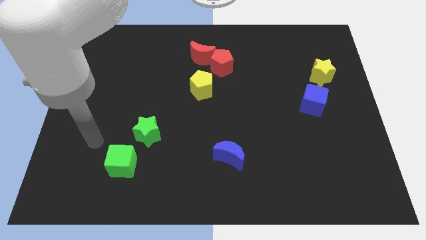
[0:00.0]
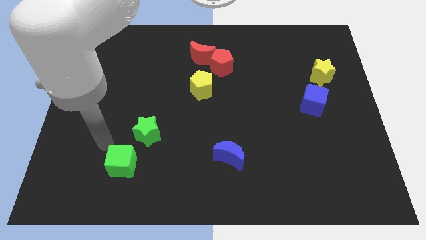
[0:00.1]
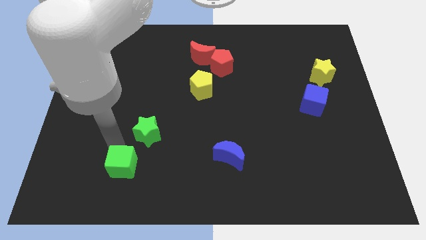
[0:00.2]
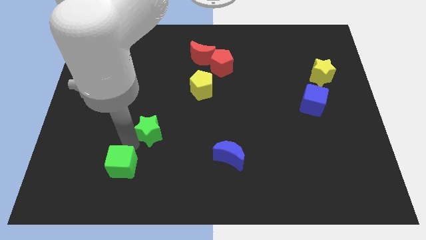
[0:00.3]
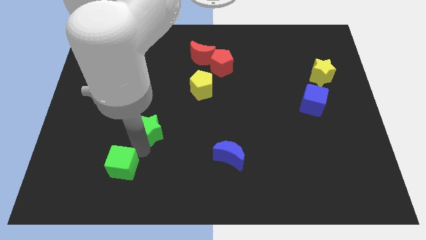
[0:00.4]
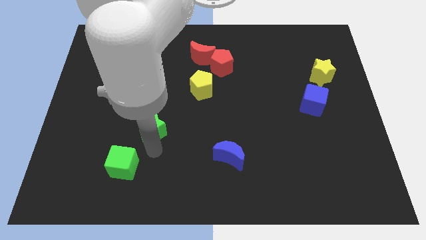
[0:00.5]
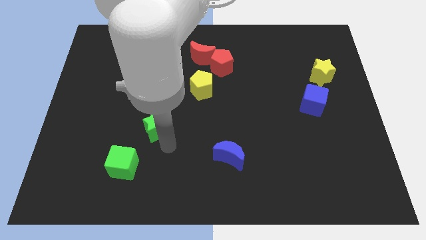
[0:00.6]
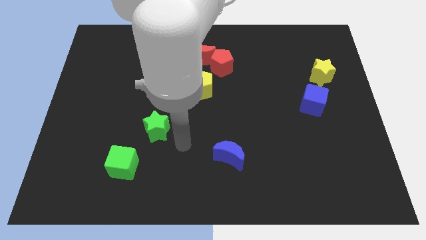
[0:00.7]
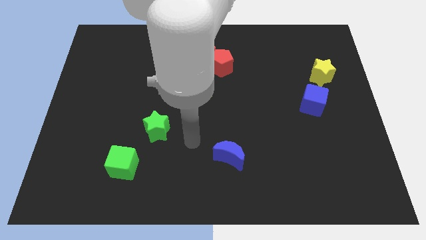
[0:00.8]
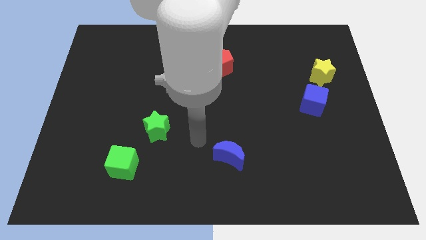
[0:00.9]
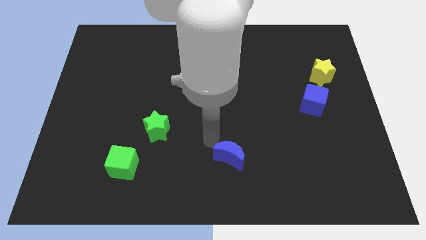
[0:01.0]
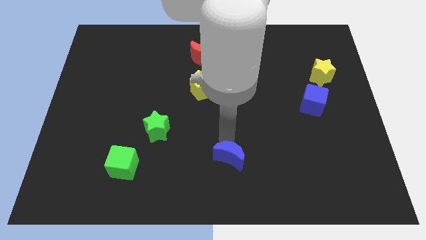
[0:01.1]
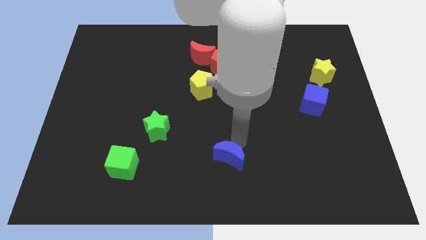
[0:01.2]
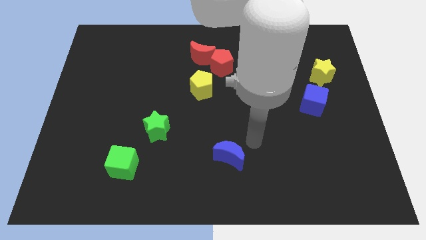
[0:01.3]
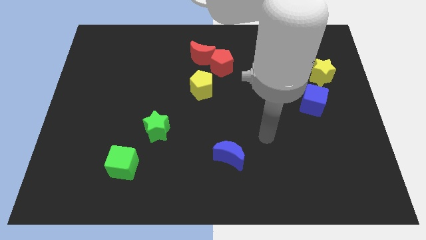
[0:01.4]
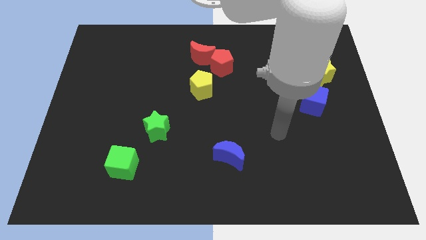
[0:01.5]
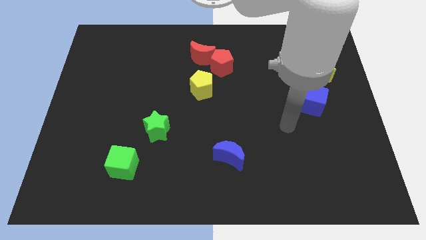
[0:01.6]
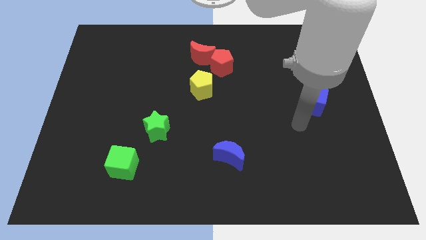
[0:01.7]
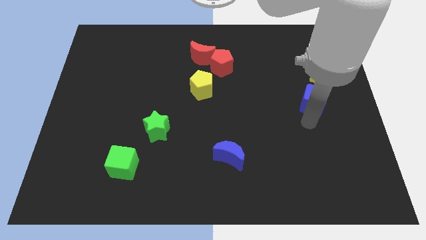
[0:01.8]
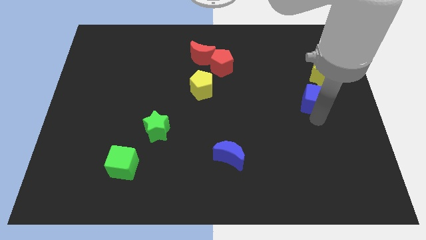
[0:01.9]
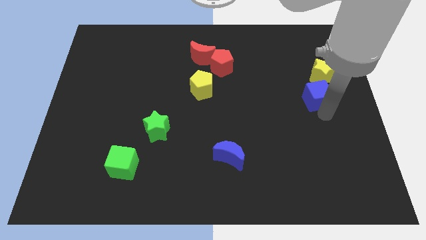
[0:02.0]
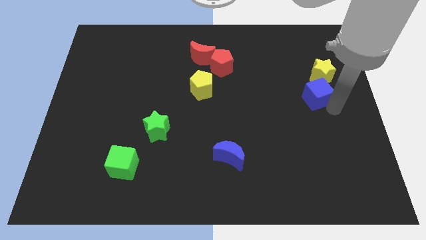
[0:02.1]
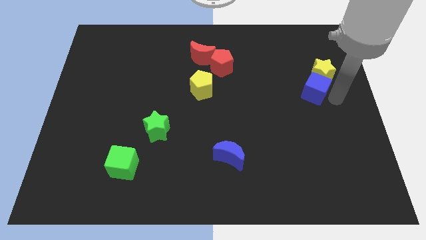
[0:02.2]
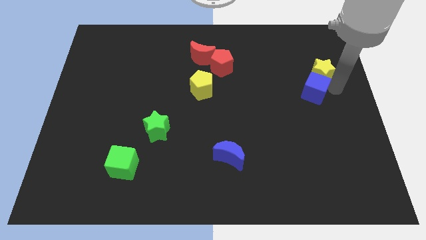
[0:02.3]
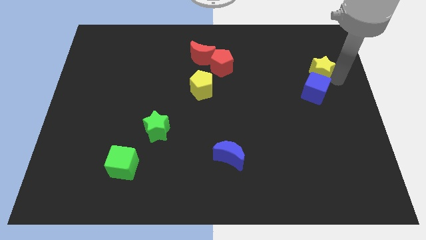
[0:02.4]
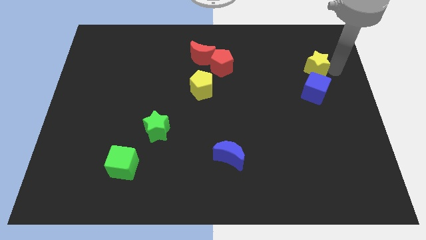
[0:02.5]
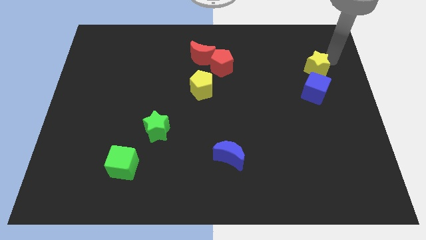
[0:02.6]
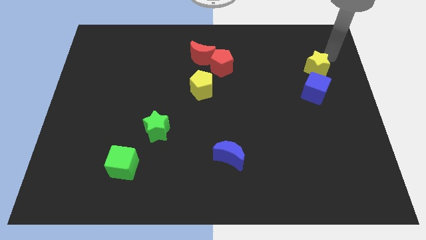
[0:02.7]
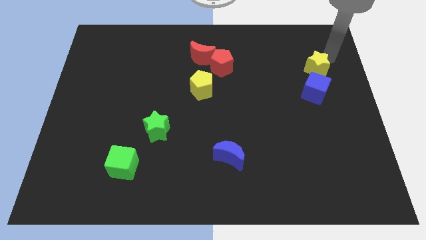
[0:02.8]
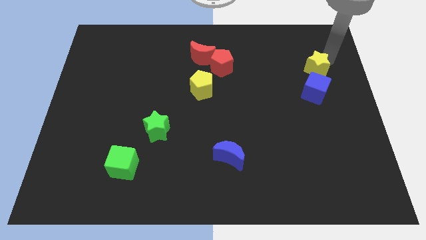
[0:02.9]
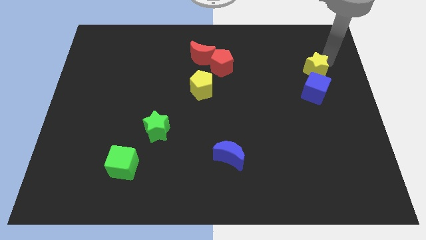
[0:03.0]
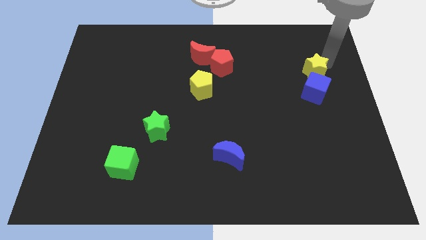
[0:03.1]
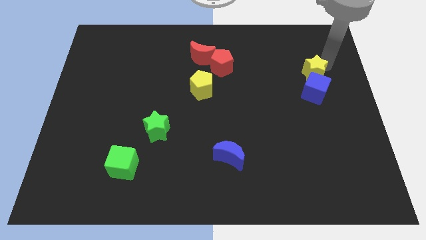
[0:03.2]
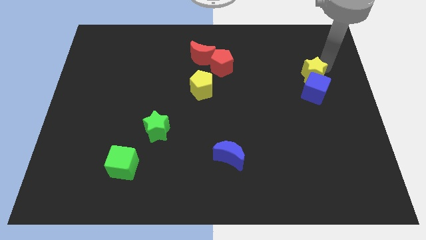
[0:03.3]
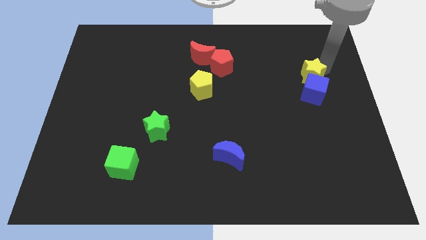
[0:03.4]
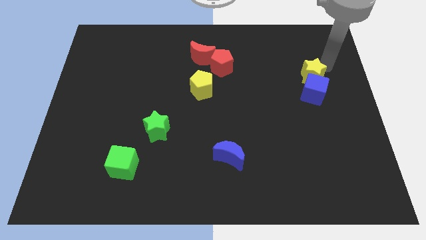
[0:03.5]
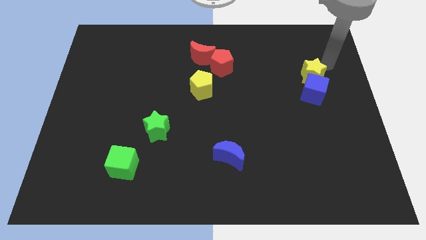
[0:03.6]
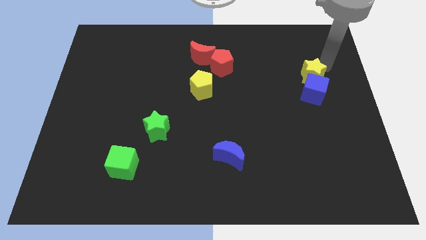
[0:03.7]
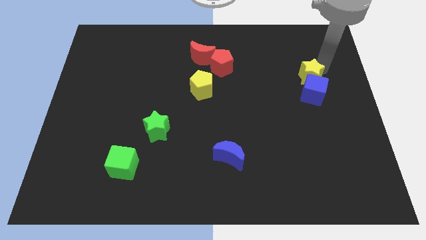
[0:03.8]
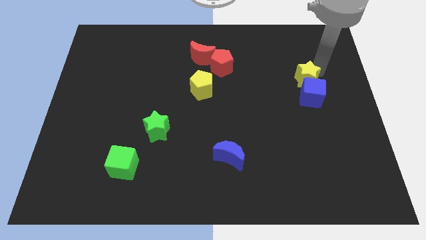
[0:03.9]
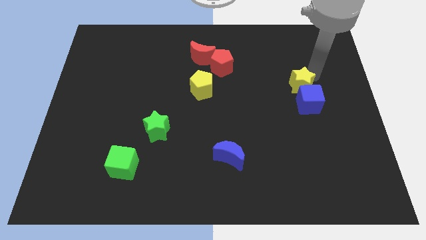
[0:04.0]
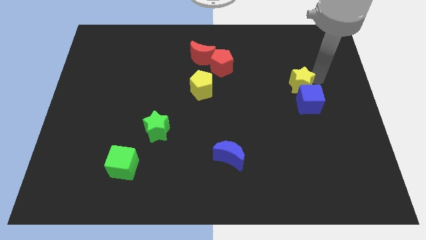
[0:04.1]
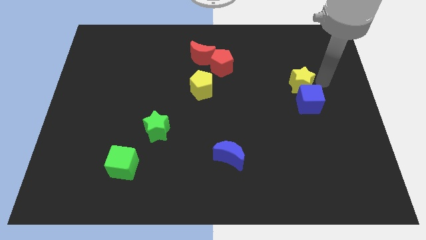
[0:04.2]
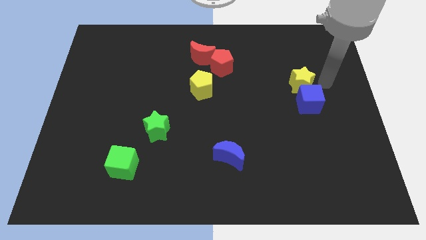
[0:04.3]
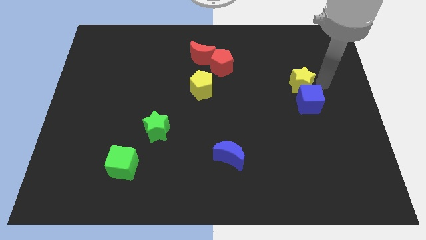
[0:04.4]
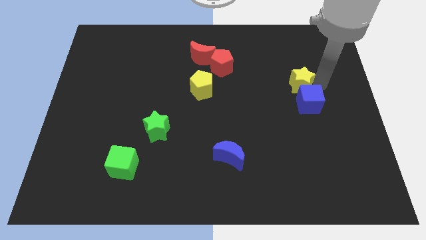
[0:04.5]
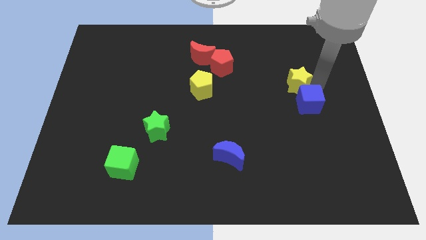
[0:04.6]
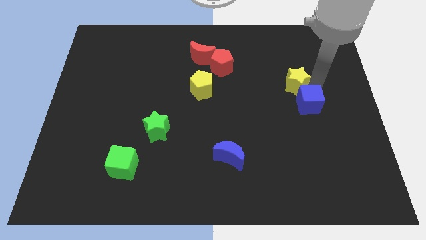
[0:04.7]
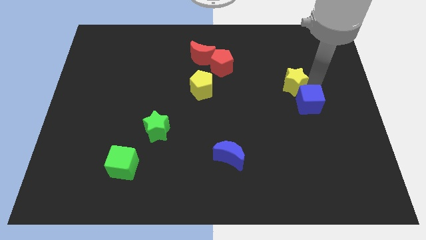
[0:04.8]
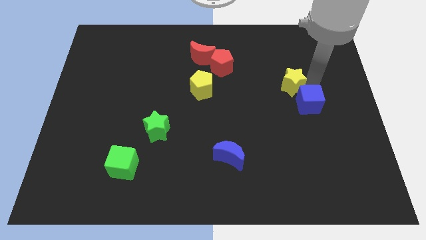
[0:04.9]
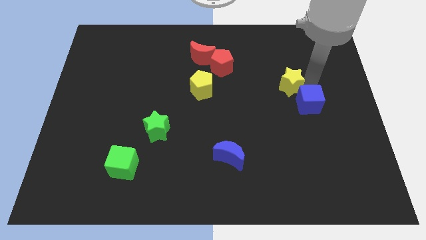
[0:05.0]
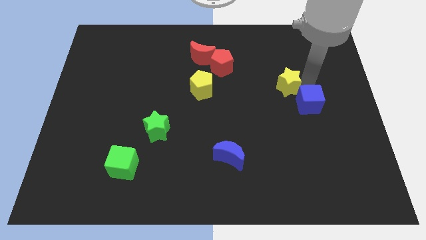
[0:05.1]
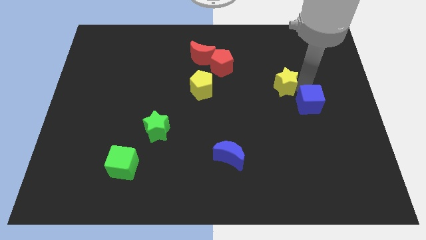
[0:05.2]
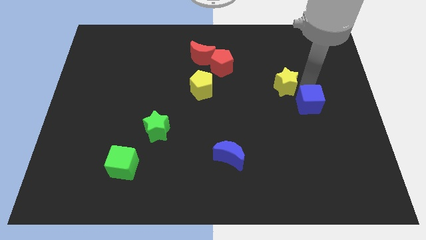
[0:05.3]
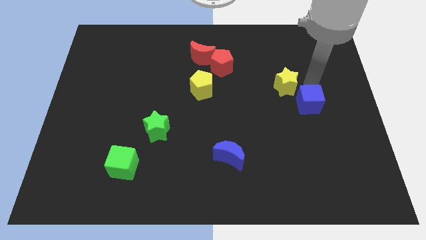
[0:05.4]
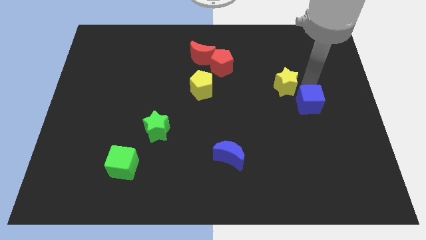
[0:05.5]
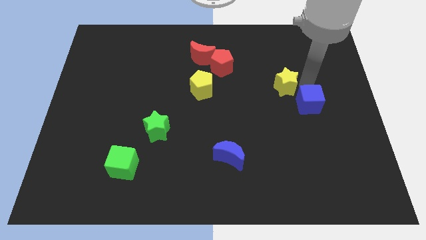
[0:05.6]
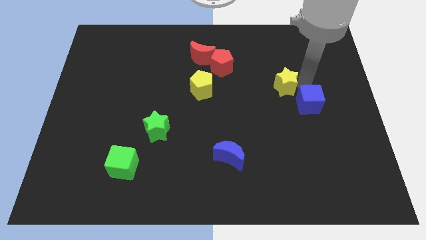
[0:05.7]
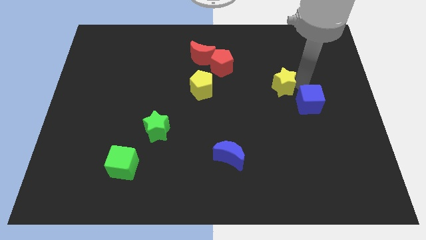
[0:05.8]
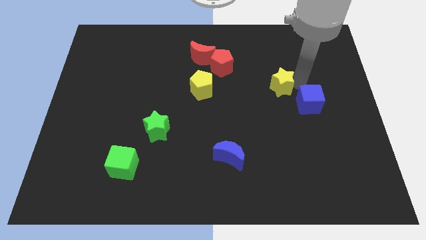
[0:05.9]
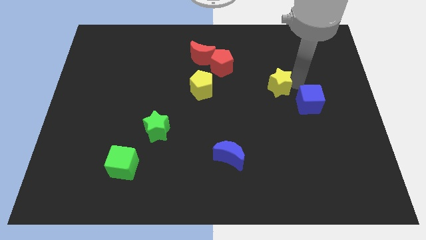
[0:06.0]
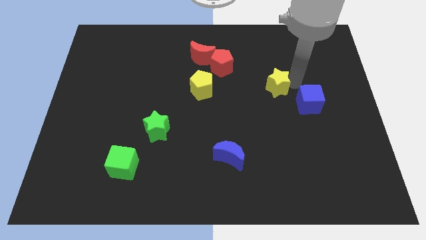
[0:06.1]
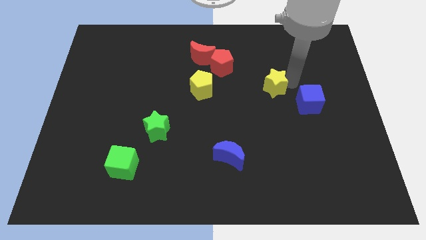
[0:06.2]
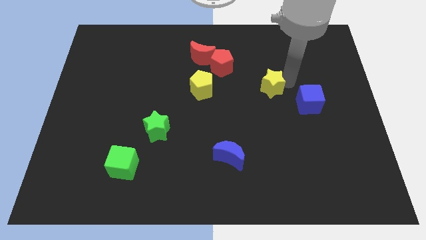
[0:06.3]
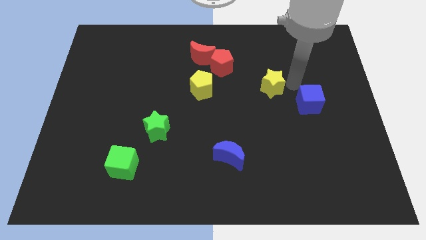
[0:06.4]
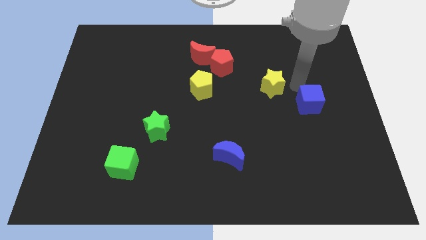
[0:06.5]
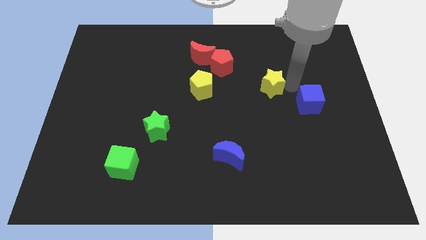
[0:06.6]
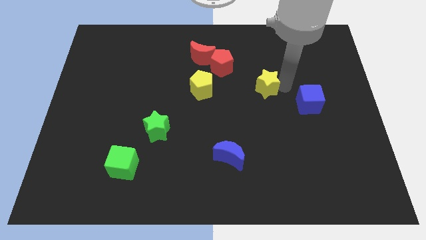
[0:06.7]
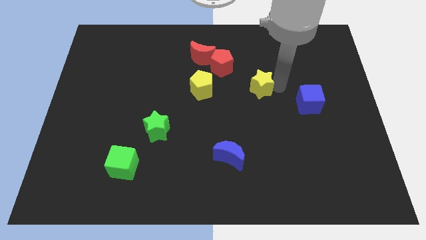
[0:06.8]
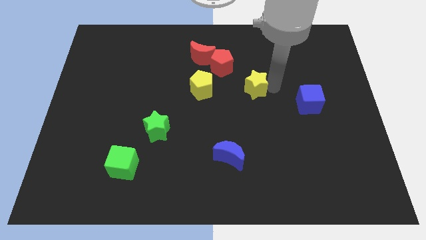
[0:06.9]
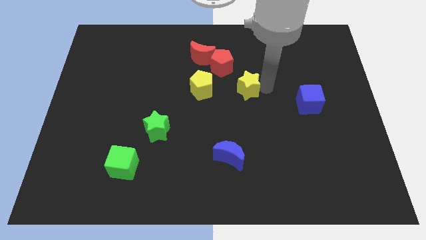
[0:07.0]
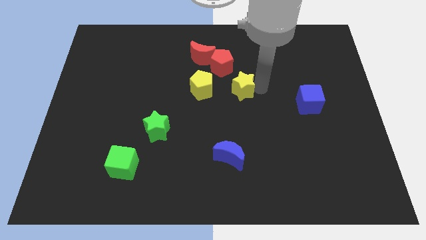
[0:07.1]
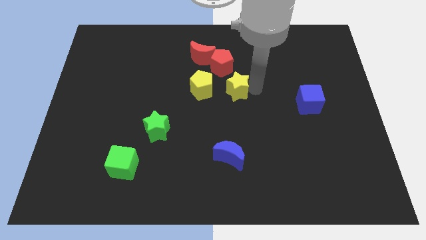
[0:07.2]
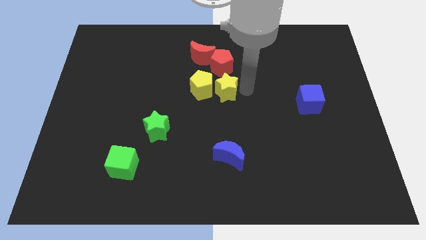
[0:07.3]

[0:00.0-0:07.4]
slide the yellow star close to the yellow pentagon

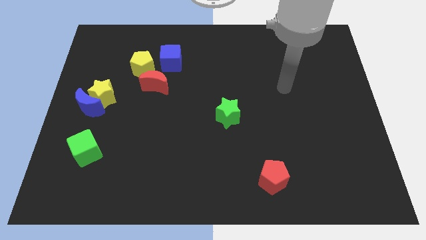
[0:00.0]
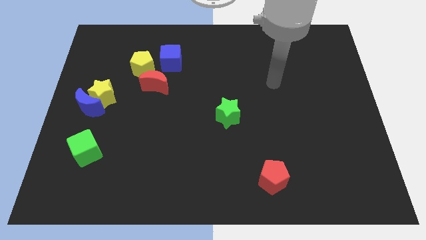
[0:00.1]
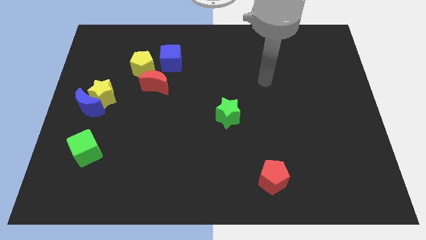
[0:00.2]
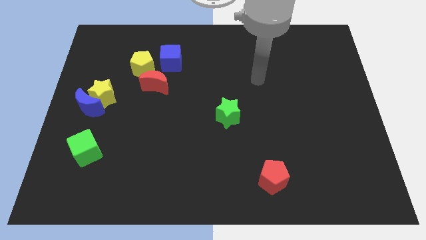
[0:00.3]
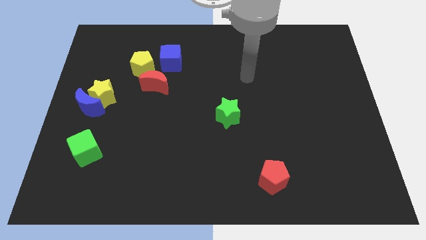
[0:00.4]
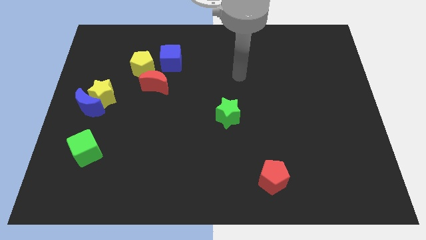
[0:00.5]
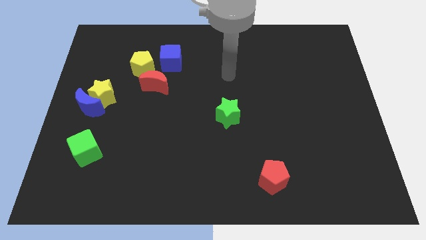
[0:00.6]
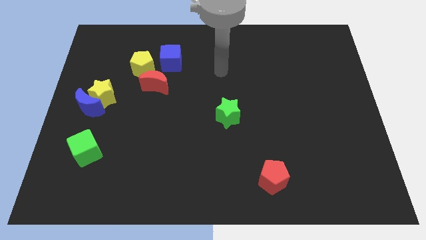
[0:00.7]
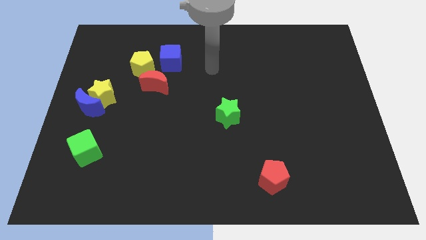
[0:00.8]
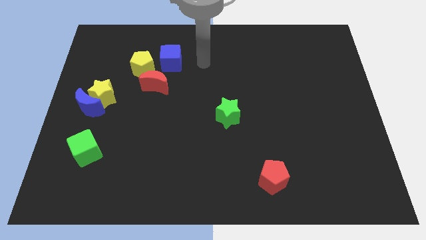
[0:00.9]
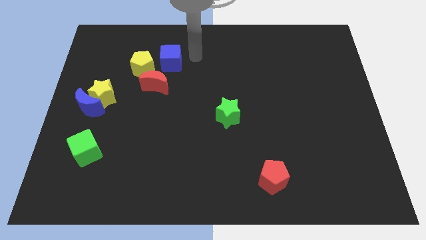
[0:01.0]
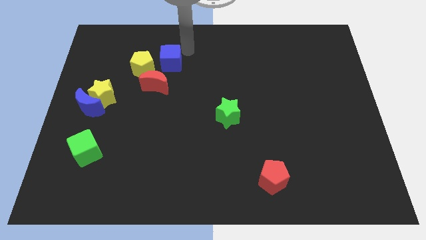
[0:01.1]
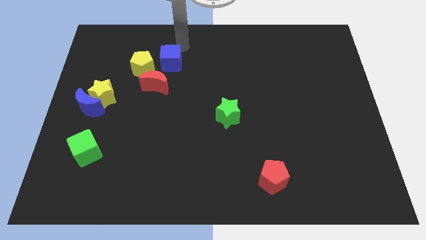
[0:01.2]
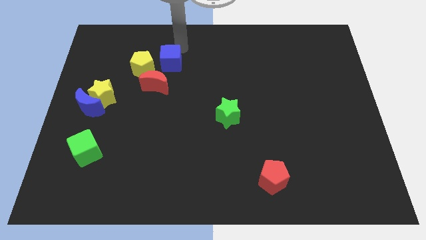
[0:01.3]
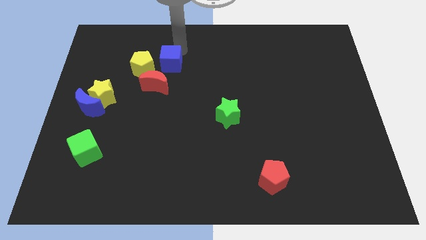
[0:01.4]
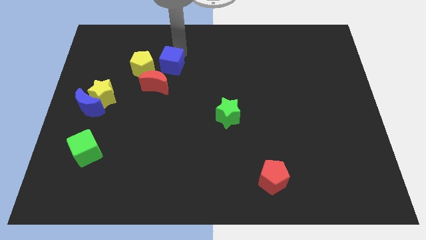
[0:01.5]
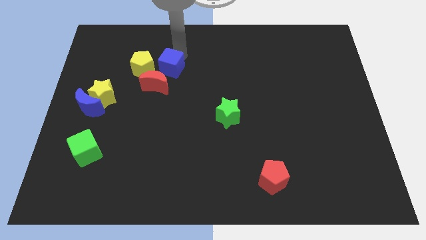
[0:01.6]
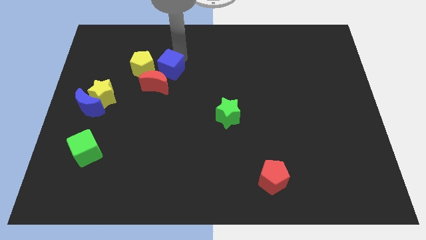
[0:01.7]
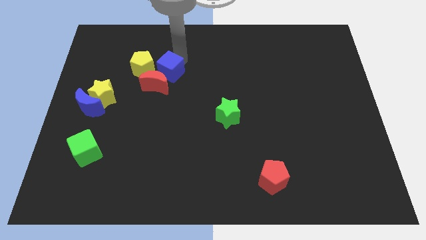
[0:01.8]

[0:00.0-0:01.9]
push the blue cube towards the red moon
